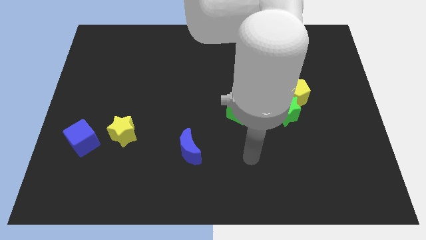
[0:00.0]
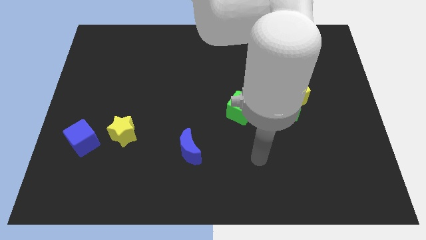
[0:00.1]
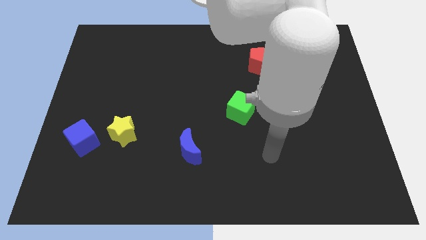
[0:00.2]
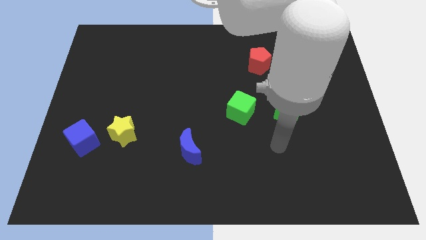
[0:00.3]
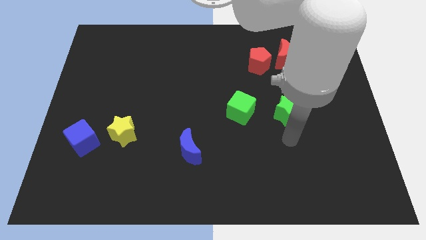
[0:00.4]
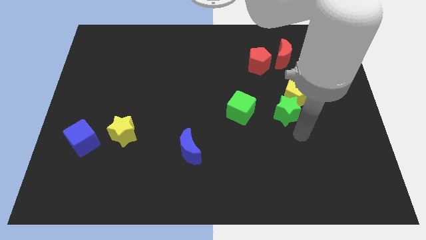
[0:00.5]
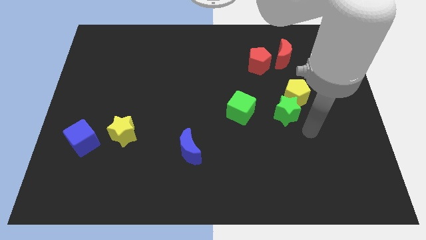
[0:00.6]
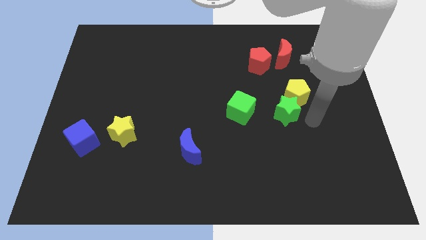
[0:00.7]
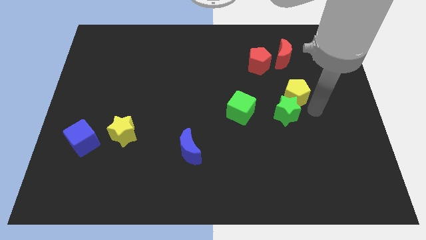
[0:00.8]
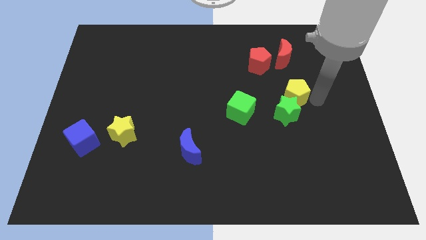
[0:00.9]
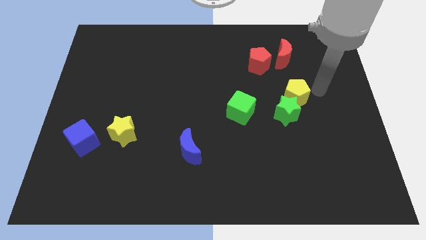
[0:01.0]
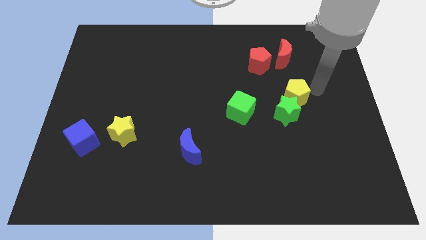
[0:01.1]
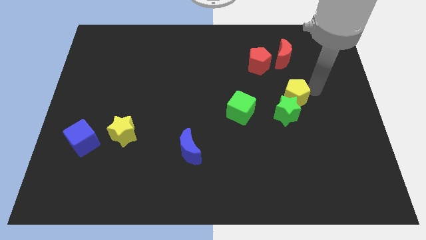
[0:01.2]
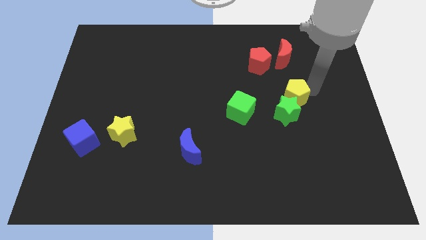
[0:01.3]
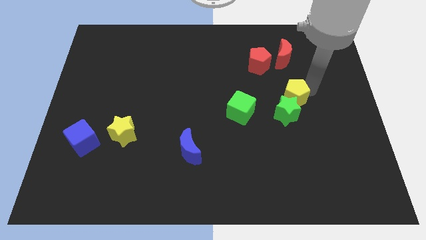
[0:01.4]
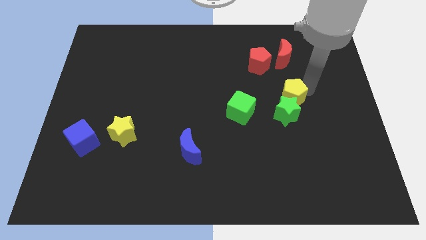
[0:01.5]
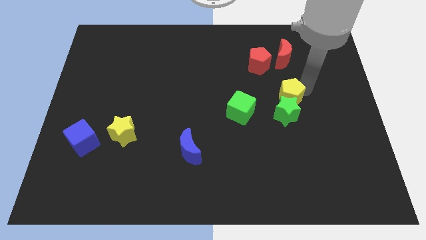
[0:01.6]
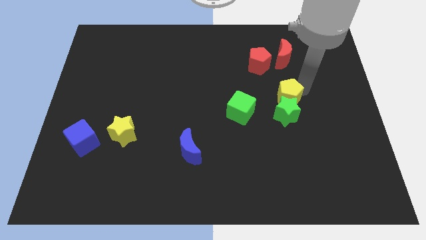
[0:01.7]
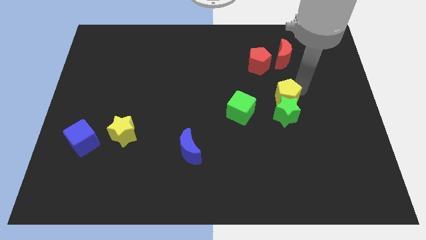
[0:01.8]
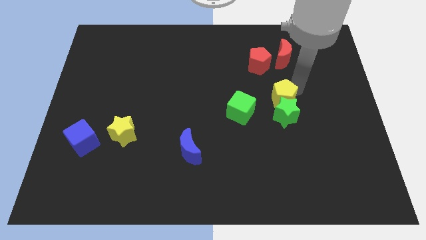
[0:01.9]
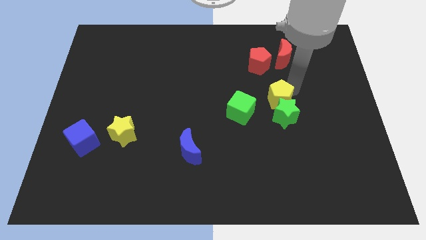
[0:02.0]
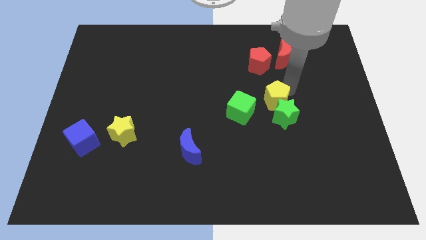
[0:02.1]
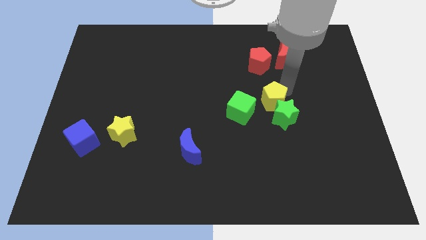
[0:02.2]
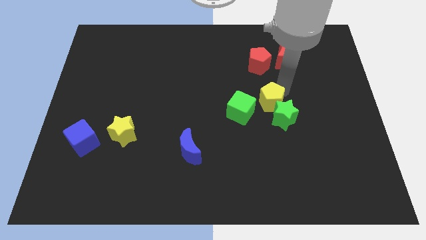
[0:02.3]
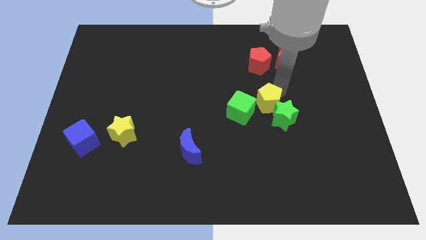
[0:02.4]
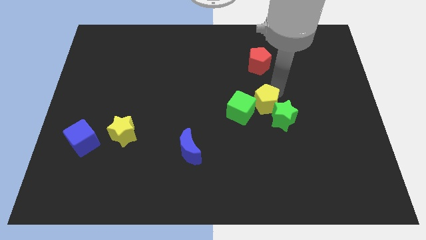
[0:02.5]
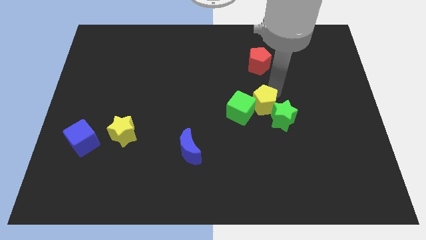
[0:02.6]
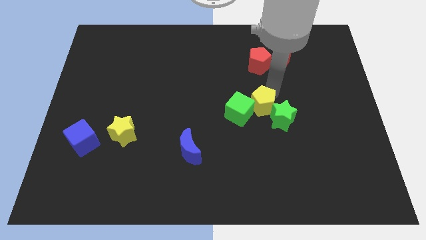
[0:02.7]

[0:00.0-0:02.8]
move the yellow pentagon downwards and to the left slightly

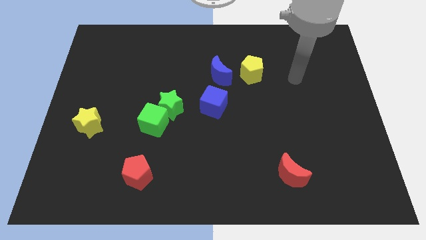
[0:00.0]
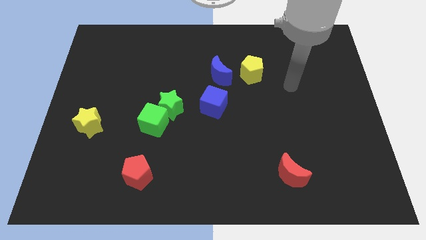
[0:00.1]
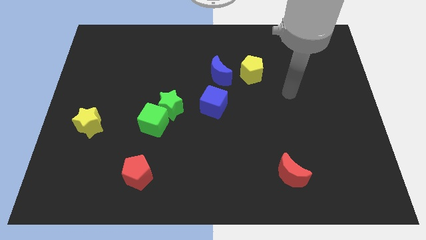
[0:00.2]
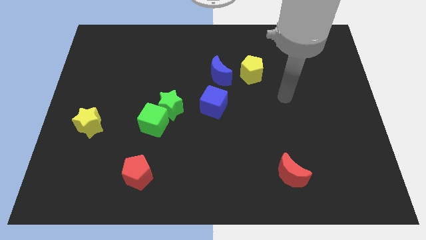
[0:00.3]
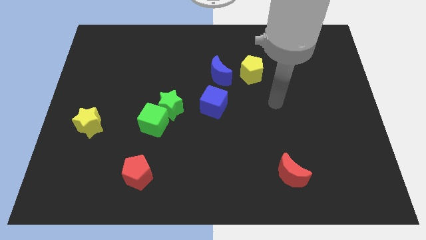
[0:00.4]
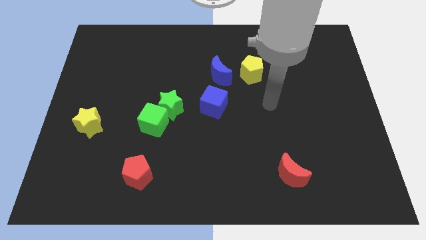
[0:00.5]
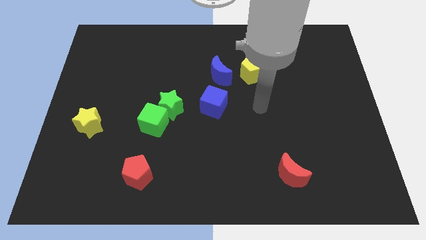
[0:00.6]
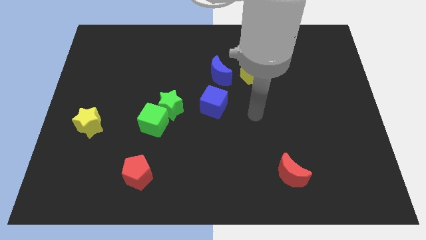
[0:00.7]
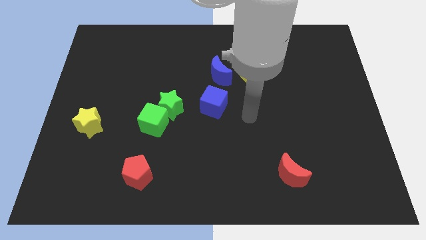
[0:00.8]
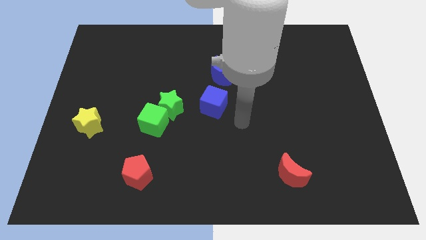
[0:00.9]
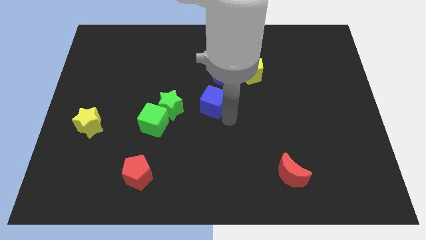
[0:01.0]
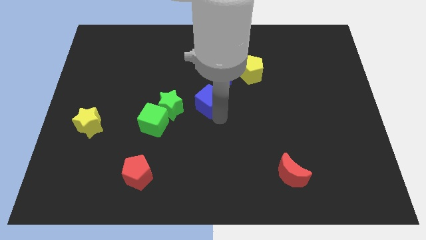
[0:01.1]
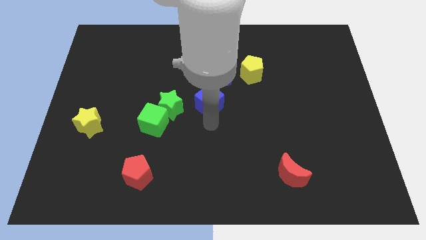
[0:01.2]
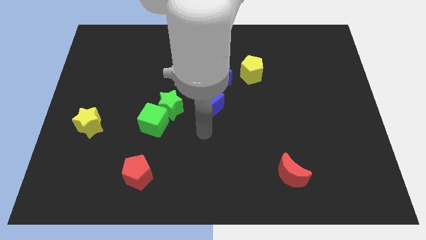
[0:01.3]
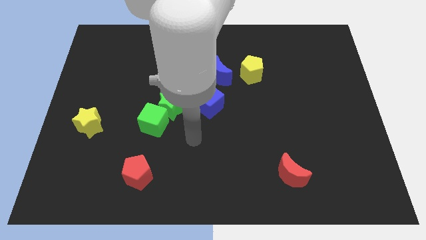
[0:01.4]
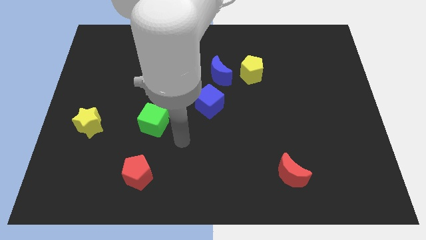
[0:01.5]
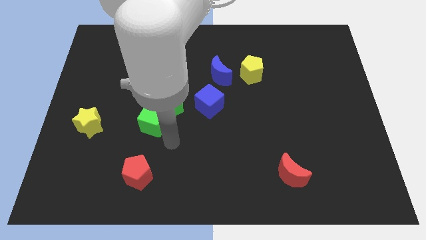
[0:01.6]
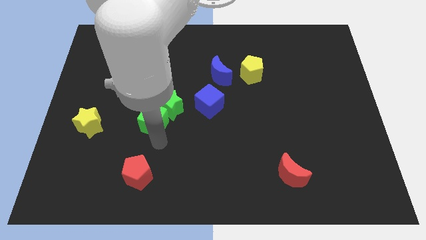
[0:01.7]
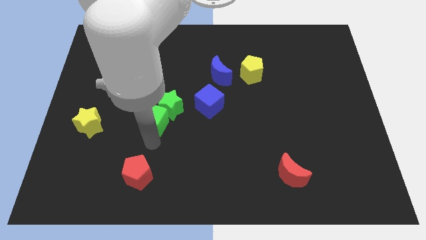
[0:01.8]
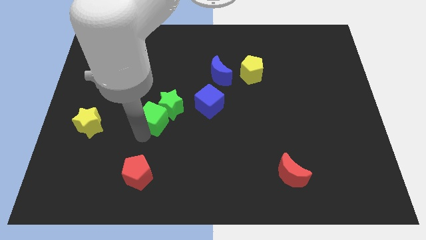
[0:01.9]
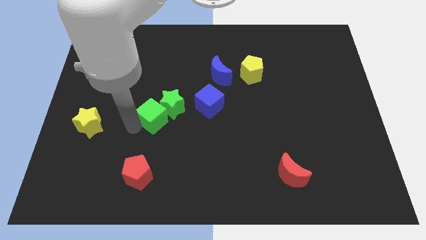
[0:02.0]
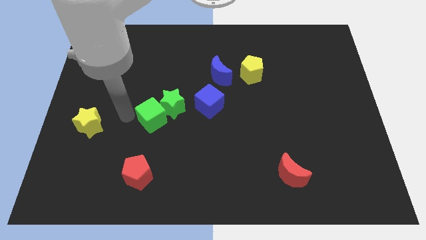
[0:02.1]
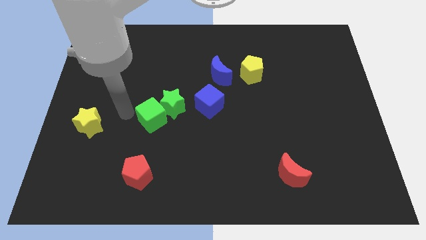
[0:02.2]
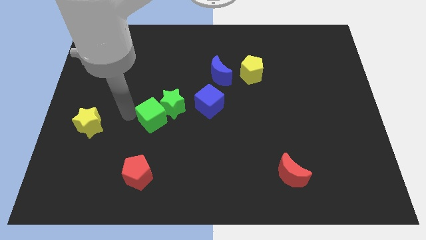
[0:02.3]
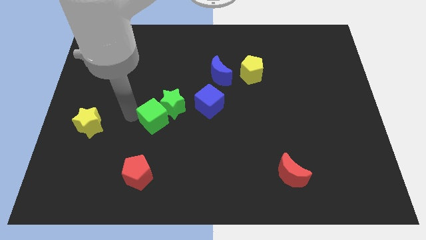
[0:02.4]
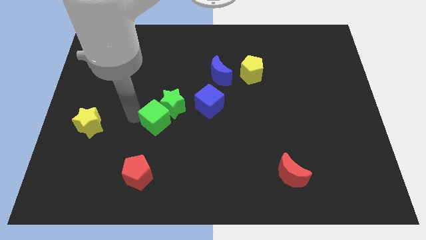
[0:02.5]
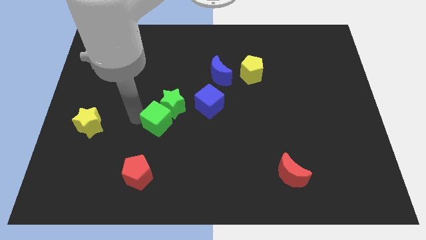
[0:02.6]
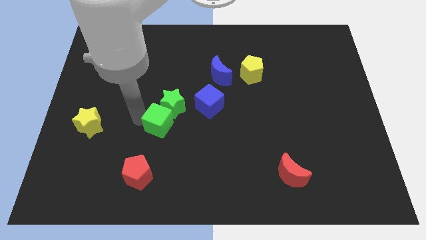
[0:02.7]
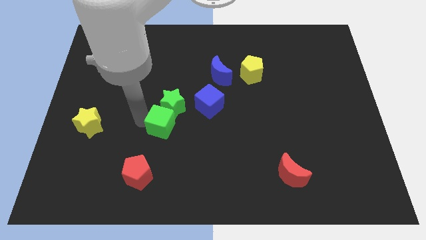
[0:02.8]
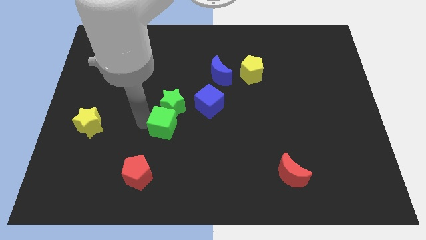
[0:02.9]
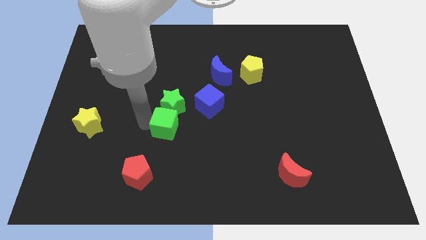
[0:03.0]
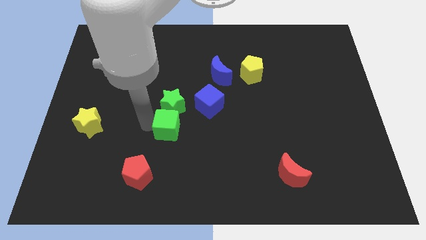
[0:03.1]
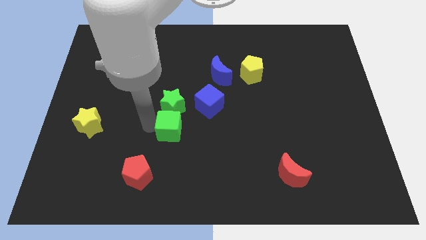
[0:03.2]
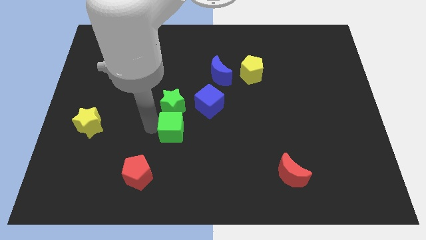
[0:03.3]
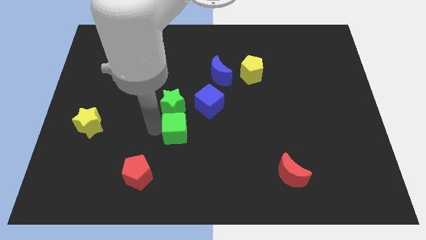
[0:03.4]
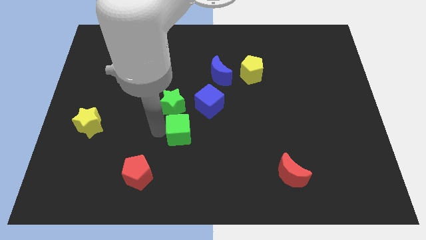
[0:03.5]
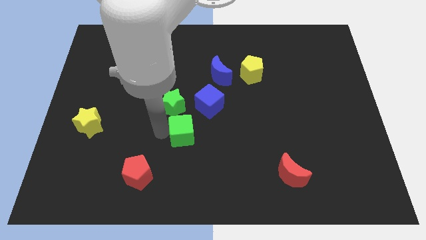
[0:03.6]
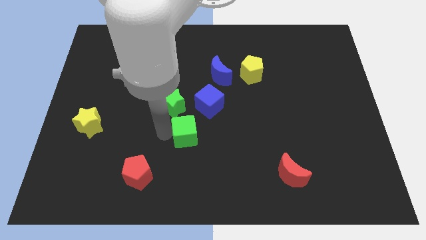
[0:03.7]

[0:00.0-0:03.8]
move the green cube slightly to the right

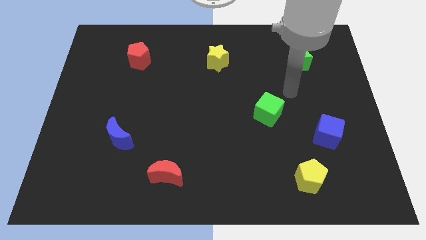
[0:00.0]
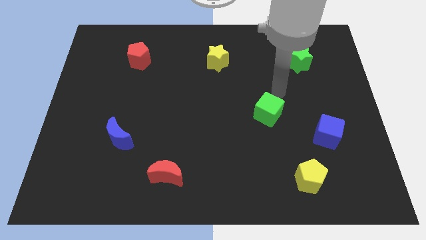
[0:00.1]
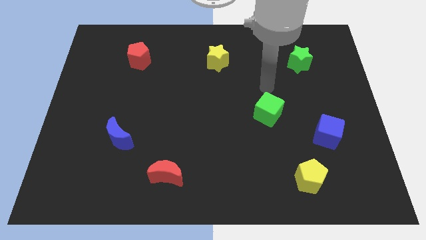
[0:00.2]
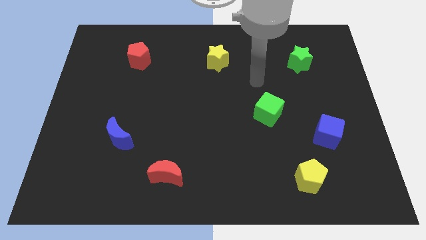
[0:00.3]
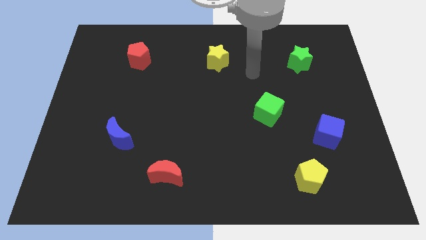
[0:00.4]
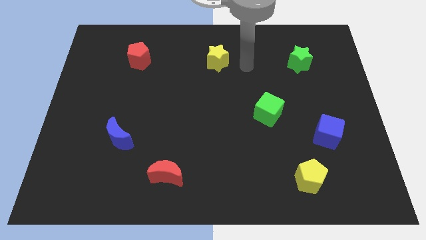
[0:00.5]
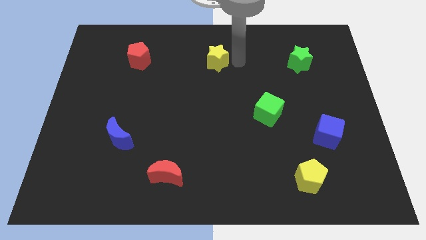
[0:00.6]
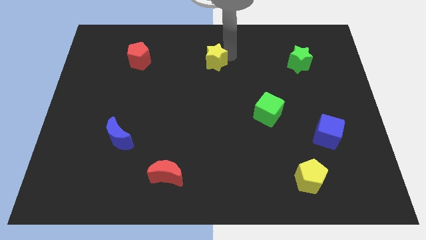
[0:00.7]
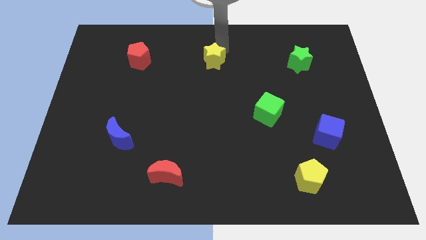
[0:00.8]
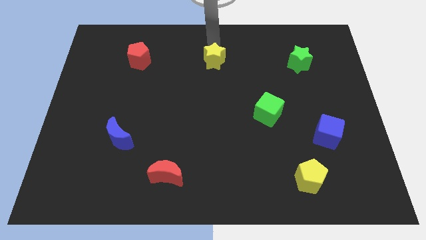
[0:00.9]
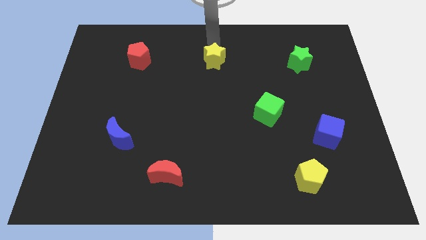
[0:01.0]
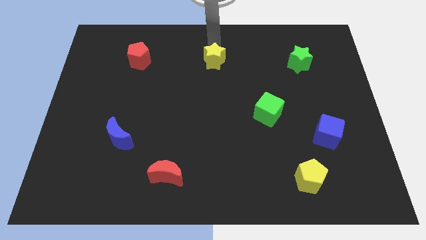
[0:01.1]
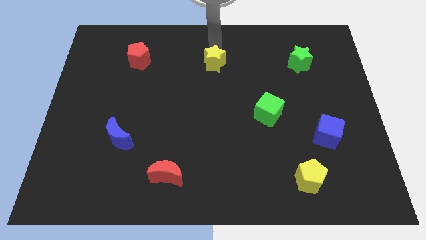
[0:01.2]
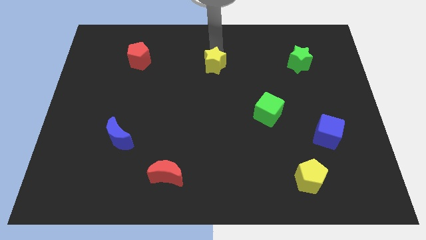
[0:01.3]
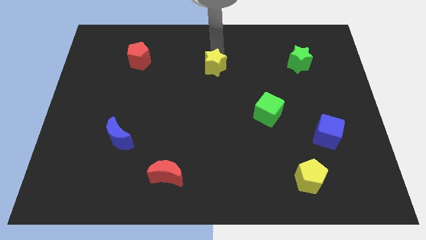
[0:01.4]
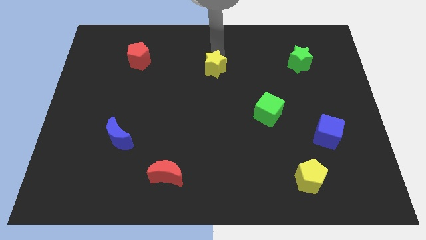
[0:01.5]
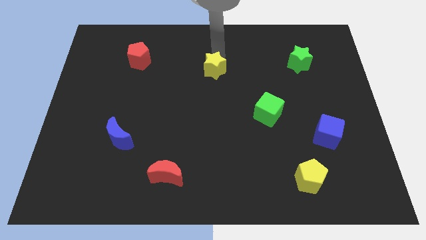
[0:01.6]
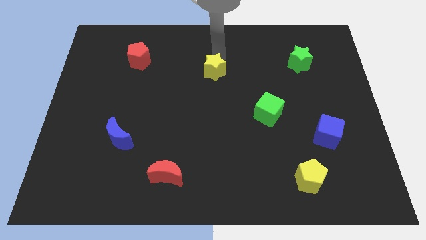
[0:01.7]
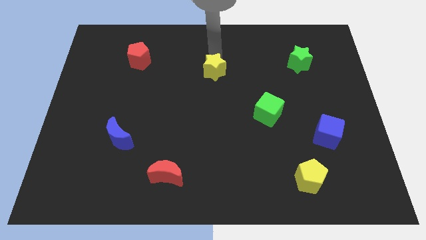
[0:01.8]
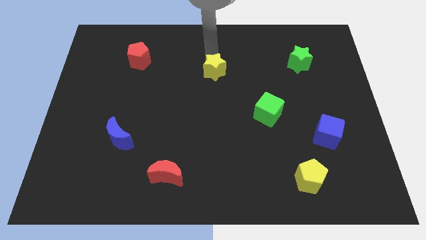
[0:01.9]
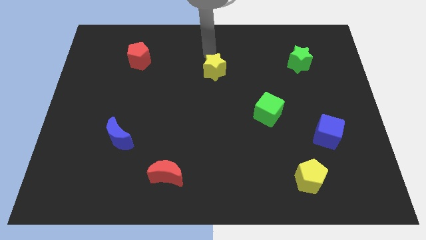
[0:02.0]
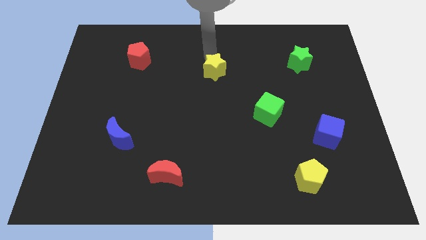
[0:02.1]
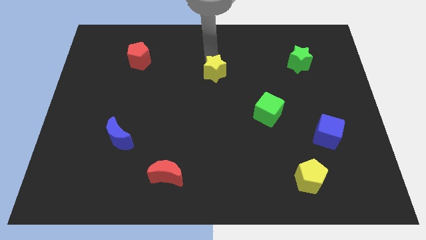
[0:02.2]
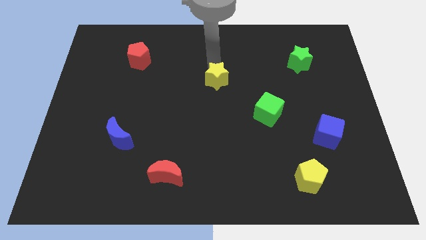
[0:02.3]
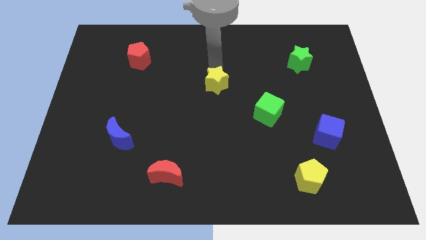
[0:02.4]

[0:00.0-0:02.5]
push the yellow star a little downwards
